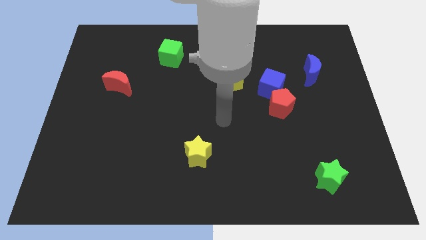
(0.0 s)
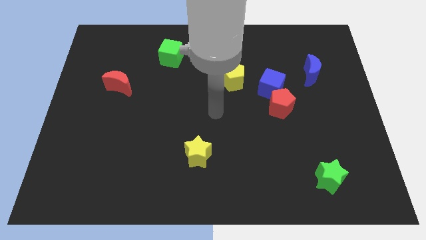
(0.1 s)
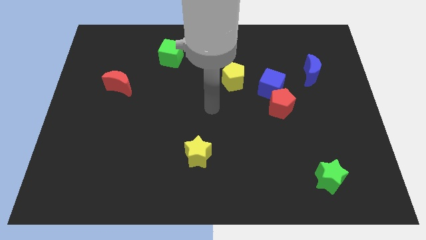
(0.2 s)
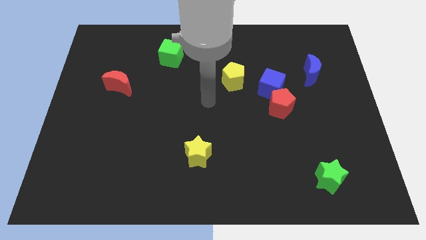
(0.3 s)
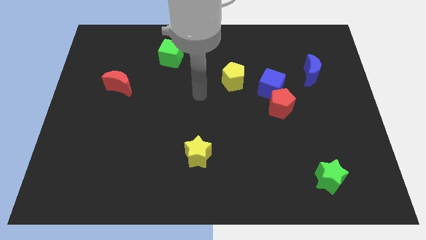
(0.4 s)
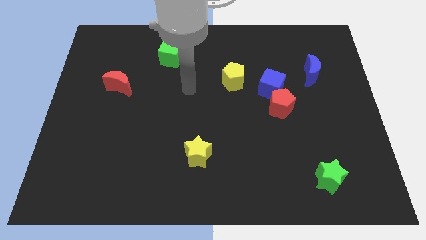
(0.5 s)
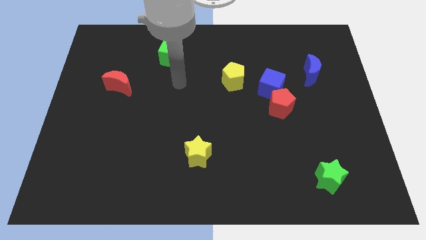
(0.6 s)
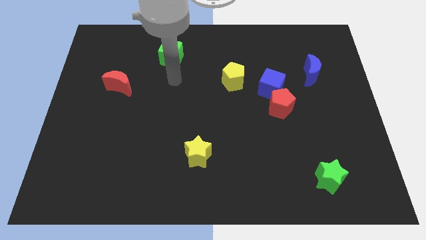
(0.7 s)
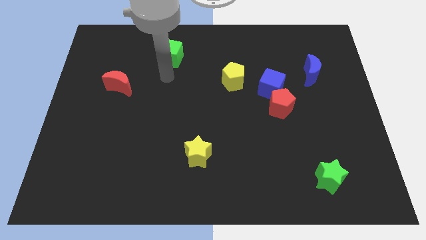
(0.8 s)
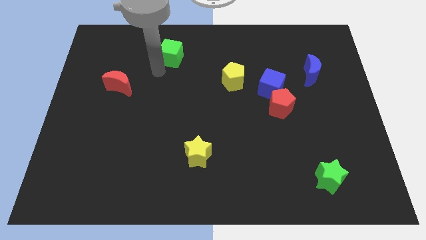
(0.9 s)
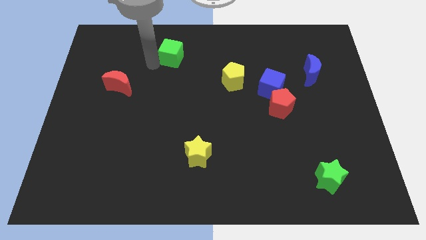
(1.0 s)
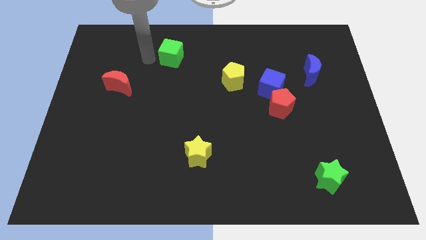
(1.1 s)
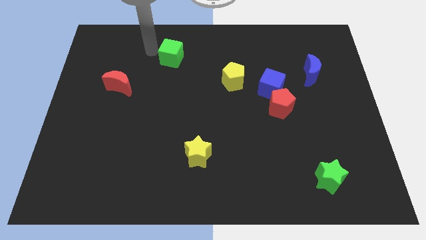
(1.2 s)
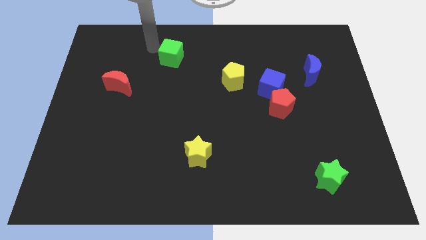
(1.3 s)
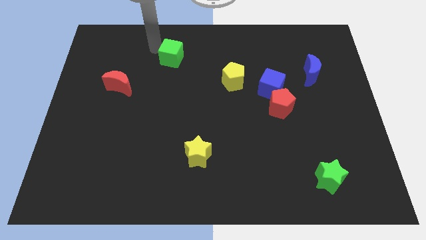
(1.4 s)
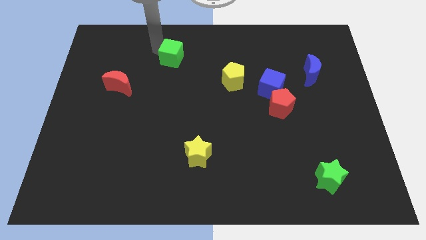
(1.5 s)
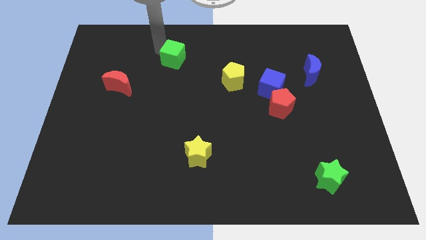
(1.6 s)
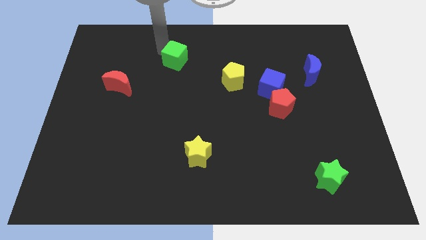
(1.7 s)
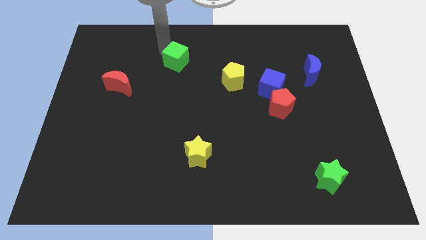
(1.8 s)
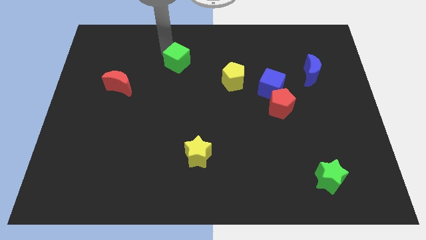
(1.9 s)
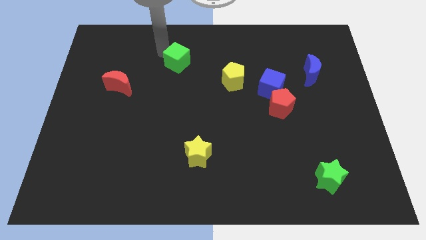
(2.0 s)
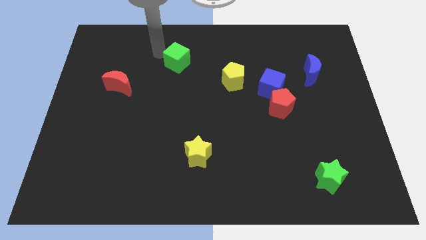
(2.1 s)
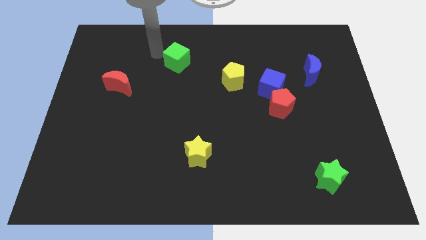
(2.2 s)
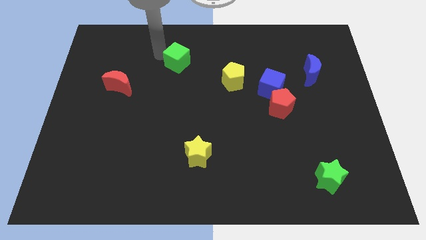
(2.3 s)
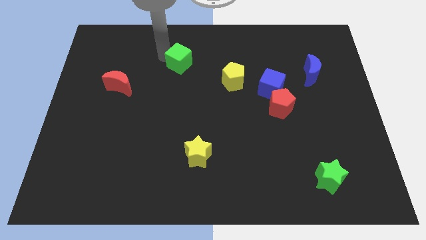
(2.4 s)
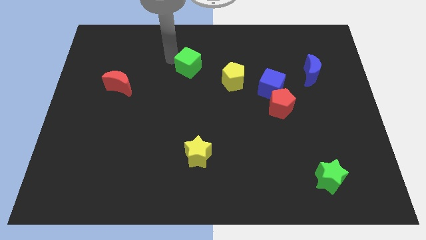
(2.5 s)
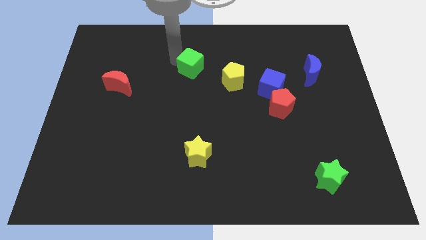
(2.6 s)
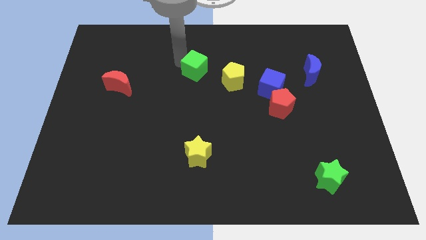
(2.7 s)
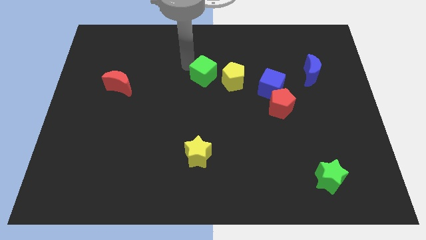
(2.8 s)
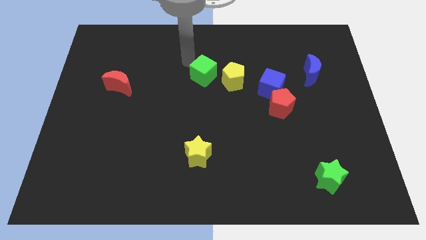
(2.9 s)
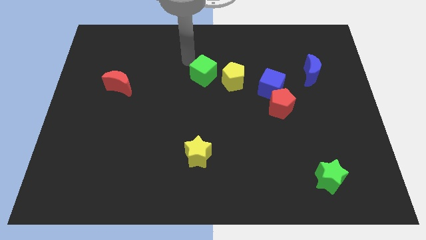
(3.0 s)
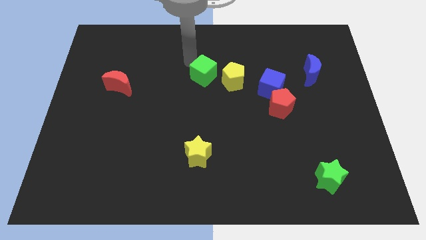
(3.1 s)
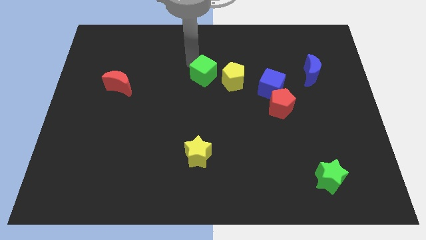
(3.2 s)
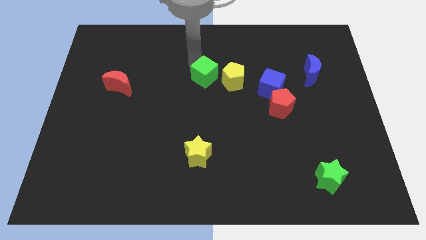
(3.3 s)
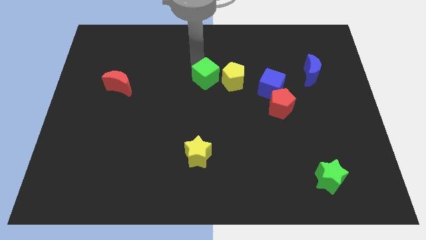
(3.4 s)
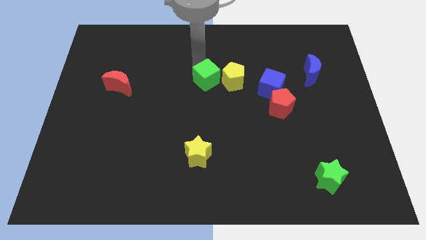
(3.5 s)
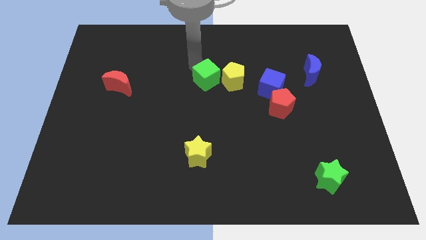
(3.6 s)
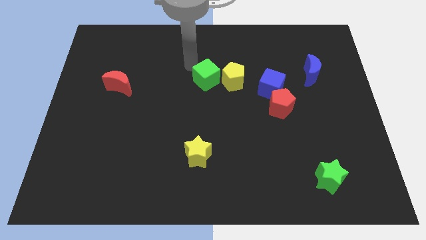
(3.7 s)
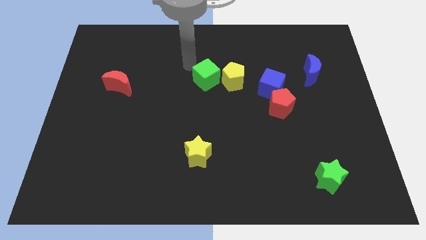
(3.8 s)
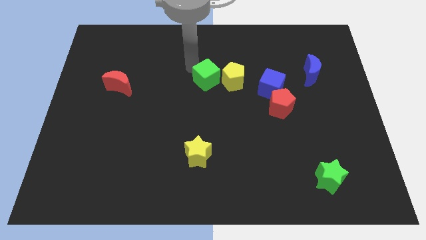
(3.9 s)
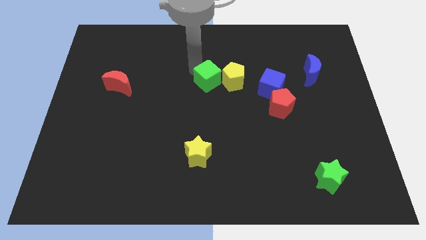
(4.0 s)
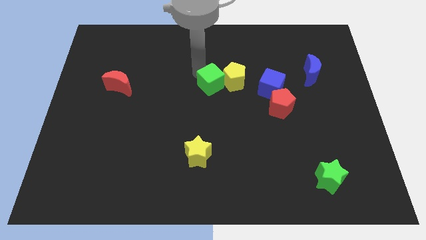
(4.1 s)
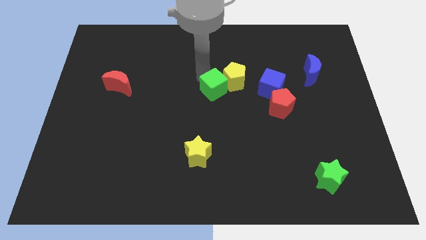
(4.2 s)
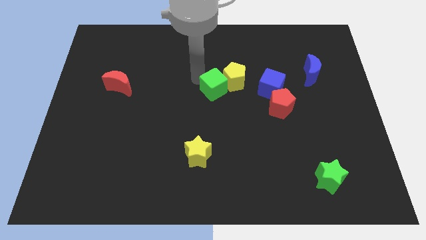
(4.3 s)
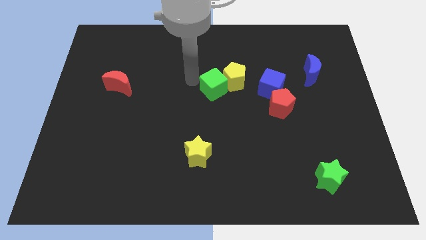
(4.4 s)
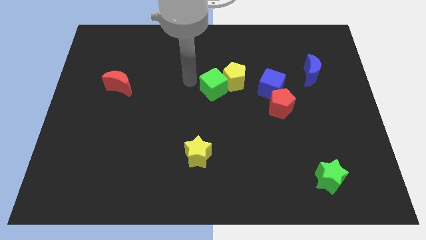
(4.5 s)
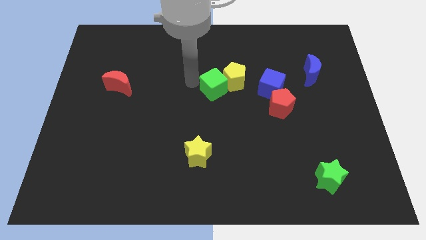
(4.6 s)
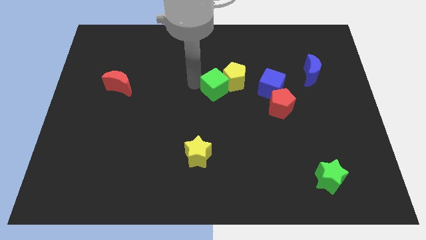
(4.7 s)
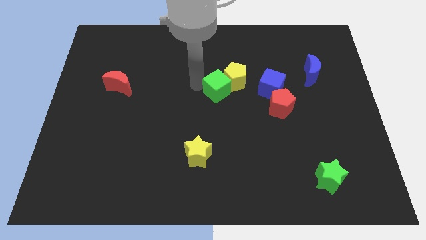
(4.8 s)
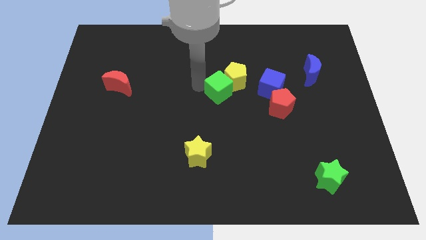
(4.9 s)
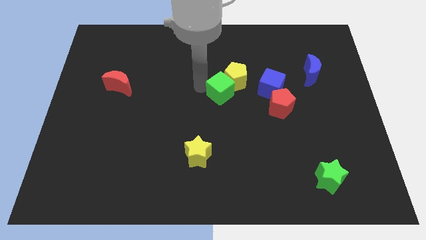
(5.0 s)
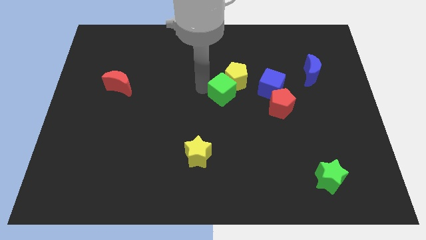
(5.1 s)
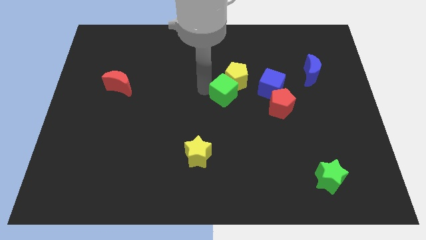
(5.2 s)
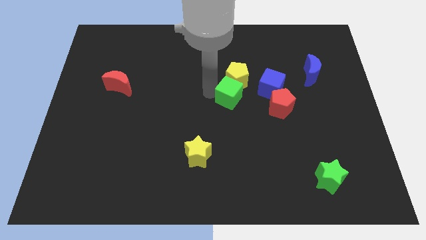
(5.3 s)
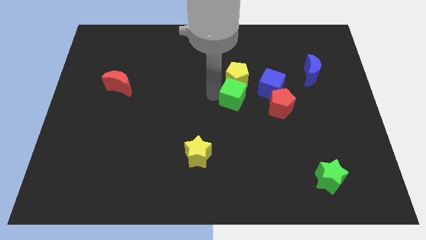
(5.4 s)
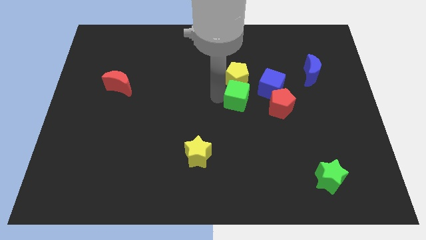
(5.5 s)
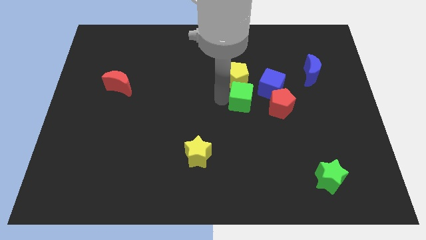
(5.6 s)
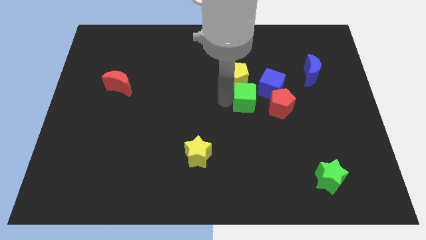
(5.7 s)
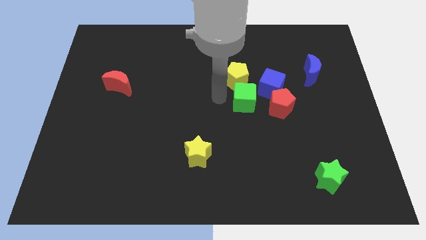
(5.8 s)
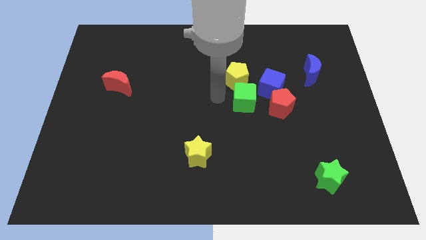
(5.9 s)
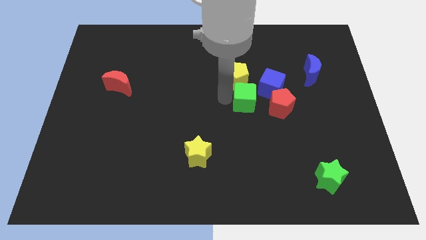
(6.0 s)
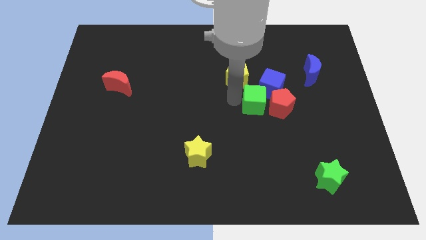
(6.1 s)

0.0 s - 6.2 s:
put the green cube next to the red pentagon
